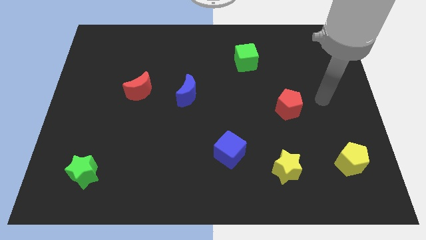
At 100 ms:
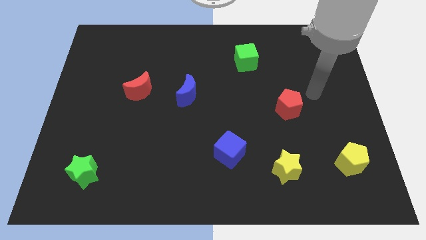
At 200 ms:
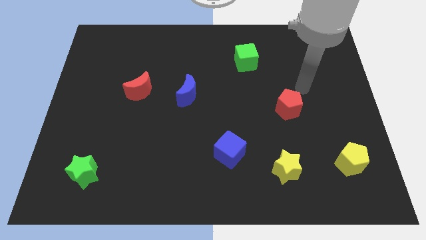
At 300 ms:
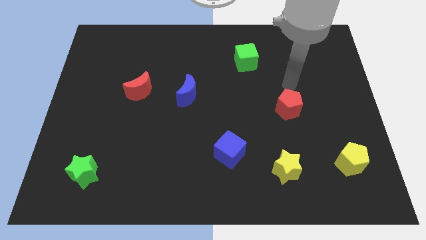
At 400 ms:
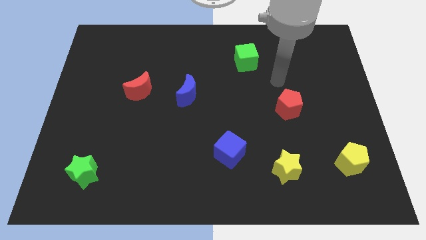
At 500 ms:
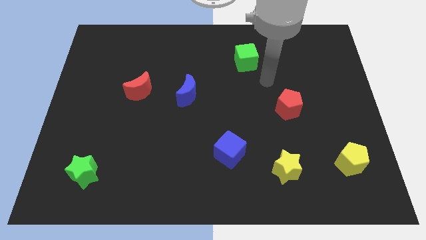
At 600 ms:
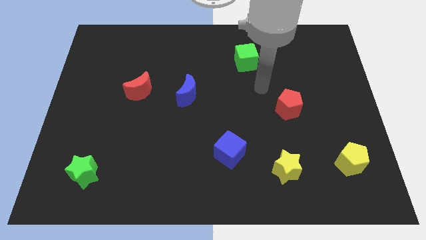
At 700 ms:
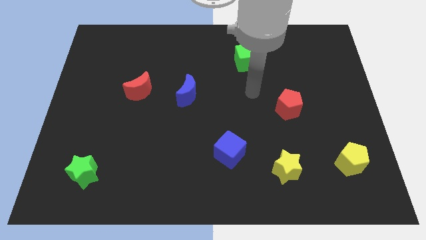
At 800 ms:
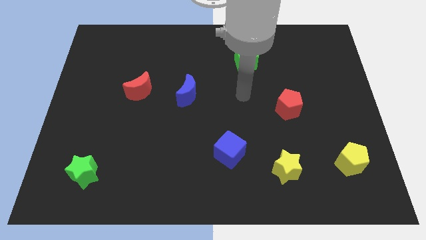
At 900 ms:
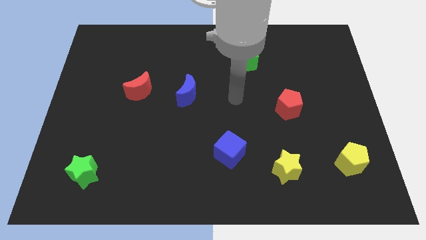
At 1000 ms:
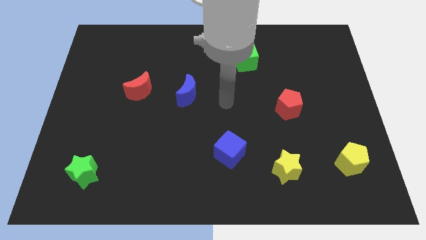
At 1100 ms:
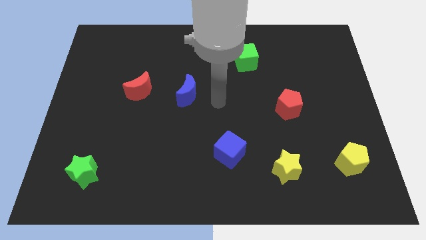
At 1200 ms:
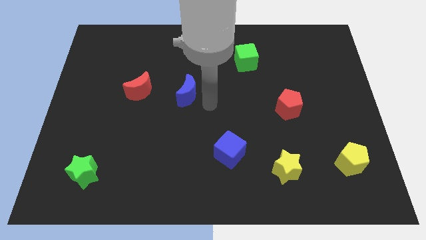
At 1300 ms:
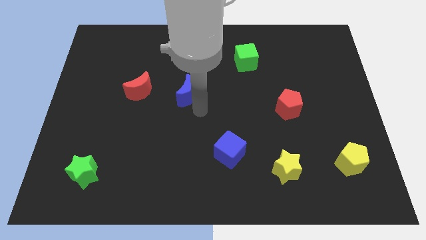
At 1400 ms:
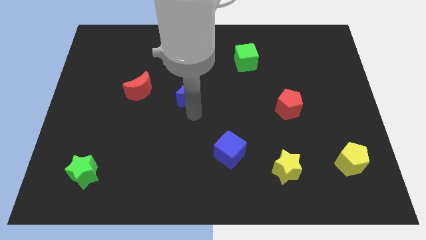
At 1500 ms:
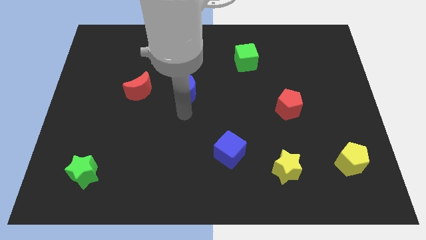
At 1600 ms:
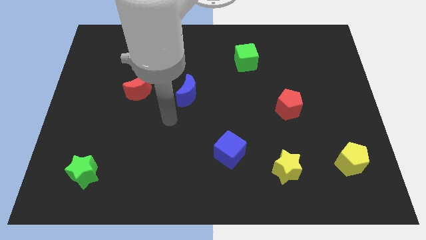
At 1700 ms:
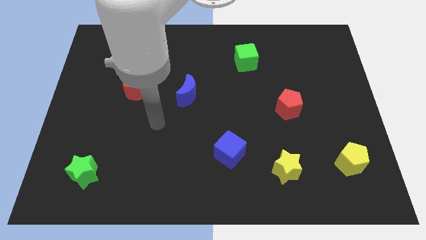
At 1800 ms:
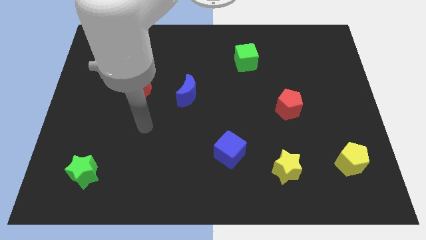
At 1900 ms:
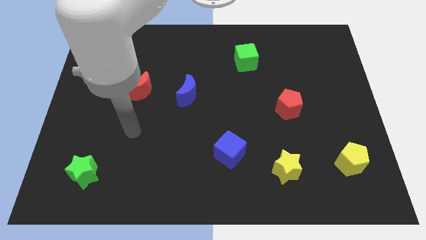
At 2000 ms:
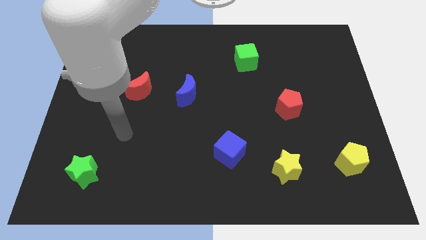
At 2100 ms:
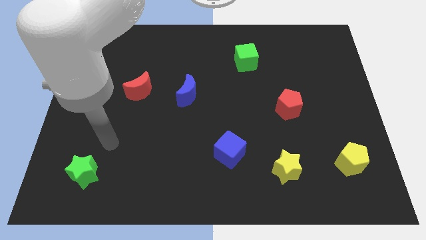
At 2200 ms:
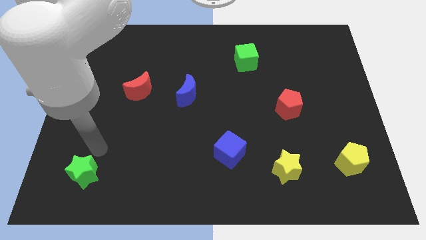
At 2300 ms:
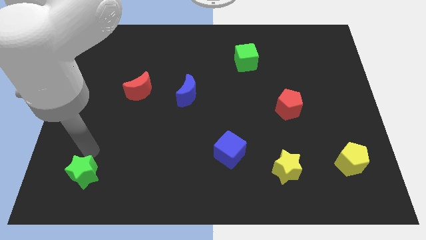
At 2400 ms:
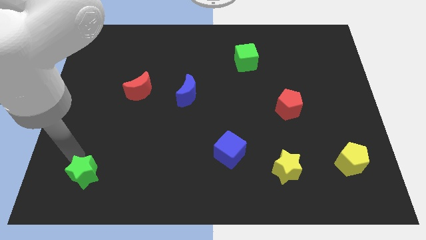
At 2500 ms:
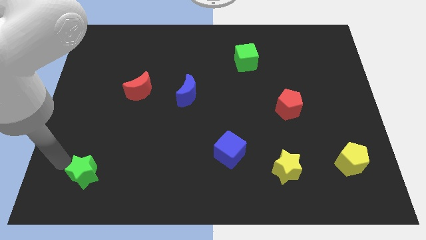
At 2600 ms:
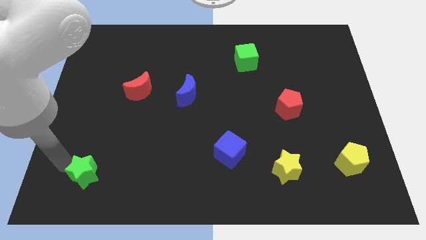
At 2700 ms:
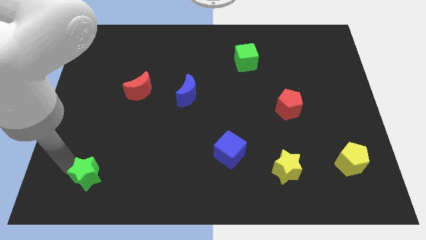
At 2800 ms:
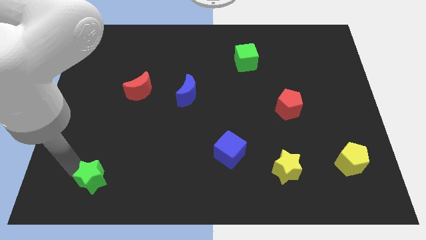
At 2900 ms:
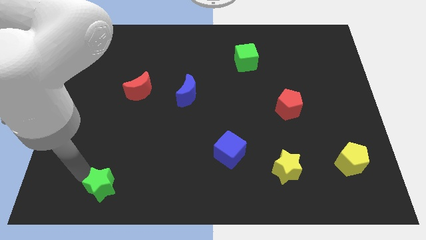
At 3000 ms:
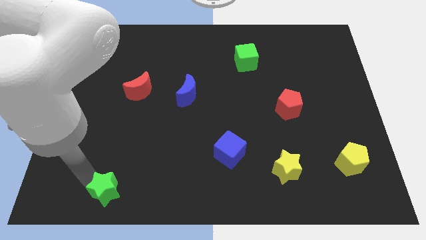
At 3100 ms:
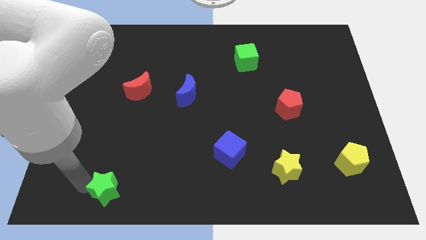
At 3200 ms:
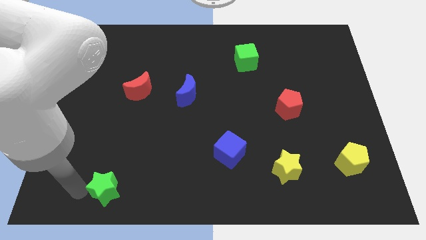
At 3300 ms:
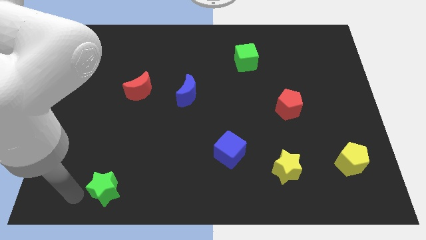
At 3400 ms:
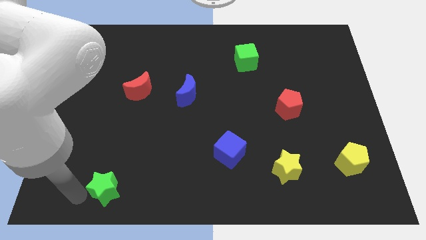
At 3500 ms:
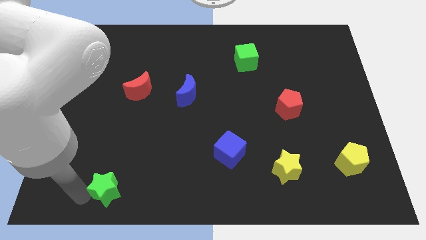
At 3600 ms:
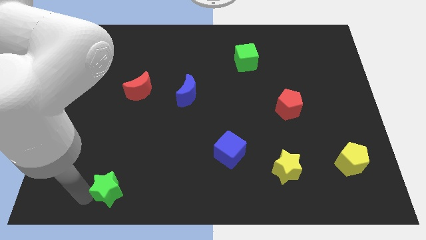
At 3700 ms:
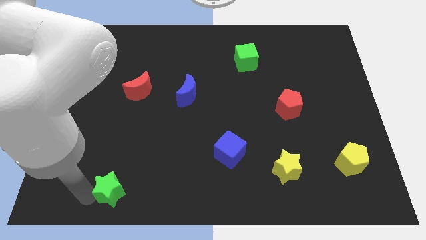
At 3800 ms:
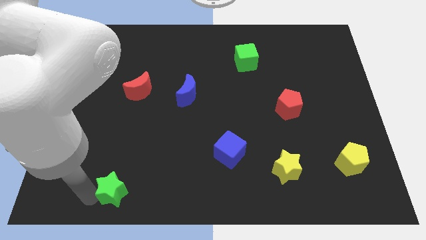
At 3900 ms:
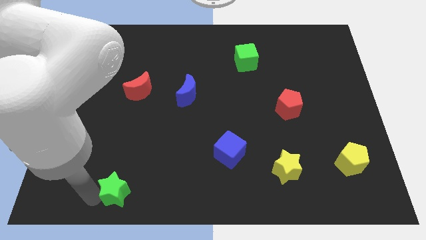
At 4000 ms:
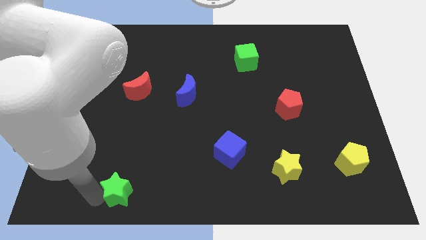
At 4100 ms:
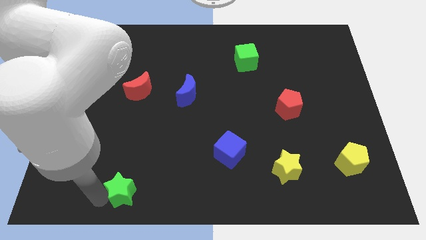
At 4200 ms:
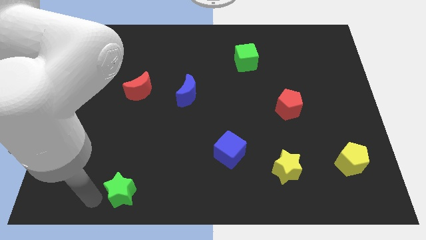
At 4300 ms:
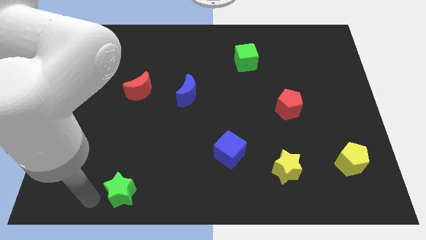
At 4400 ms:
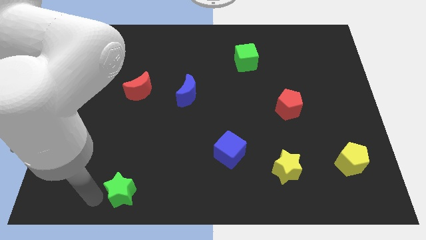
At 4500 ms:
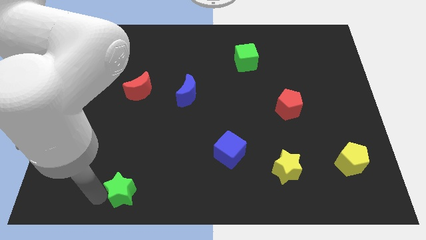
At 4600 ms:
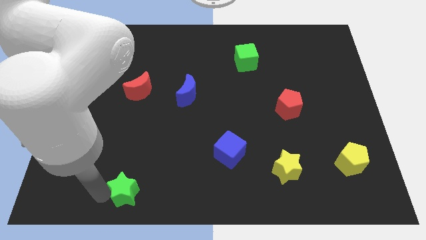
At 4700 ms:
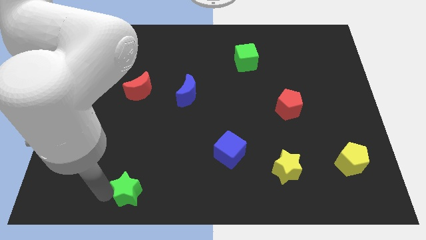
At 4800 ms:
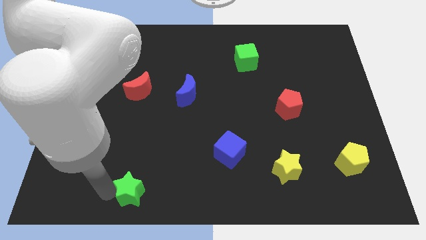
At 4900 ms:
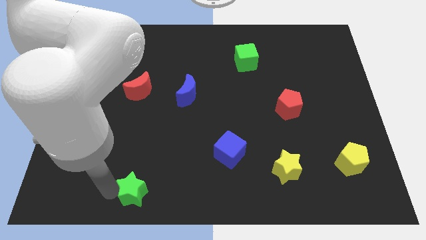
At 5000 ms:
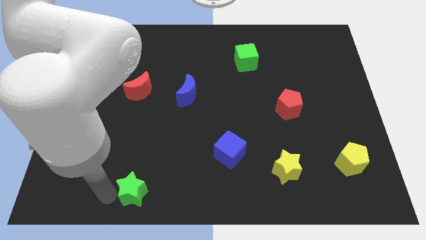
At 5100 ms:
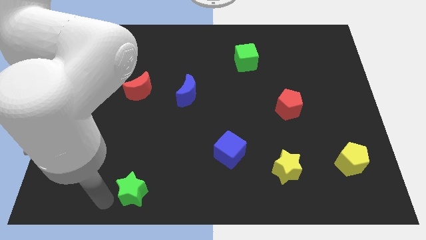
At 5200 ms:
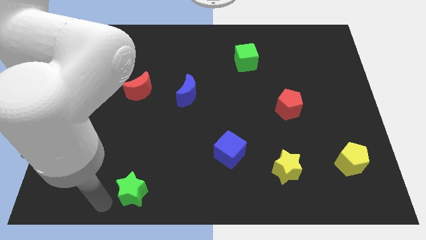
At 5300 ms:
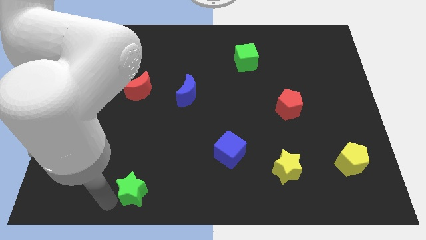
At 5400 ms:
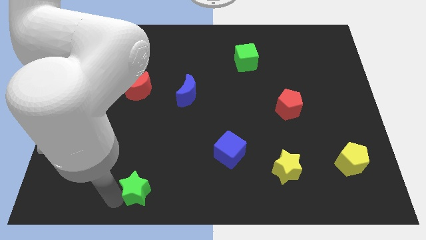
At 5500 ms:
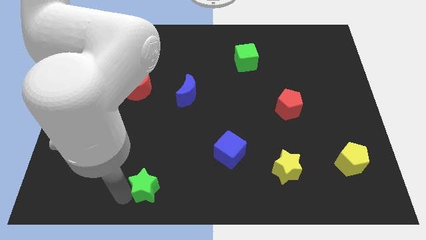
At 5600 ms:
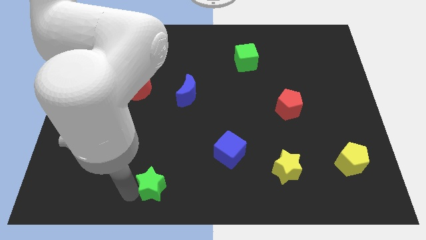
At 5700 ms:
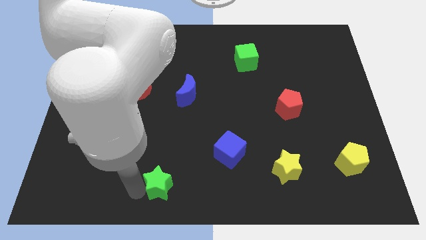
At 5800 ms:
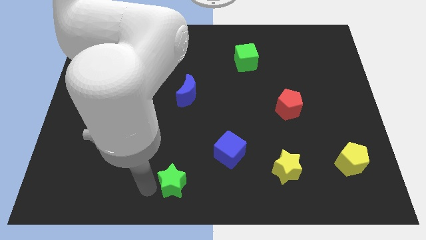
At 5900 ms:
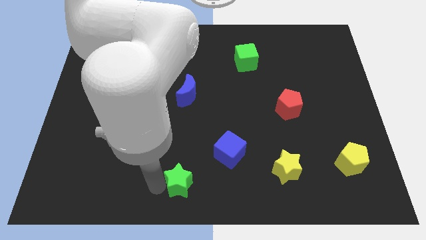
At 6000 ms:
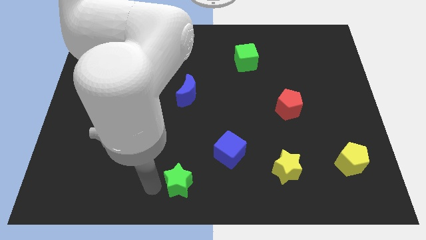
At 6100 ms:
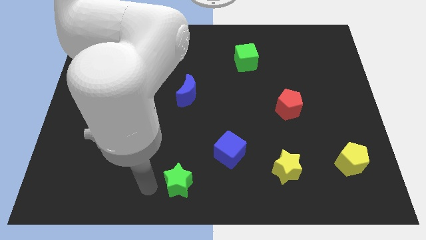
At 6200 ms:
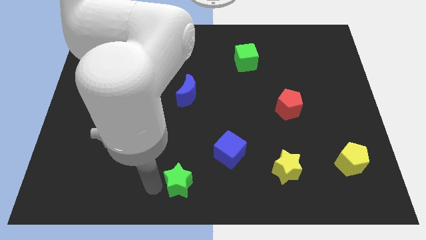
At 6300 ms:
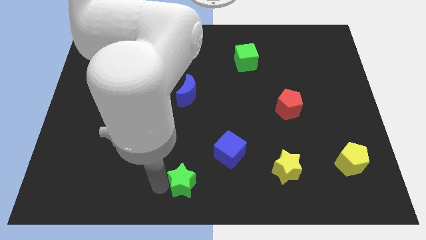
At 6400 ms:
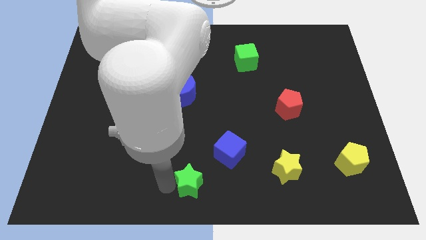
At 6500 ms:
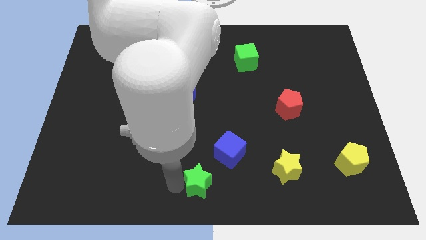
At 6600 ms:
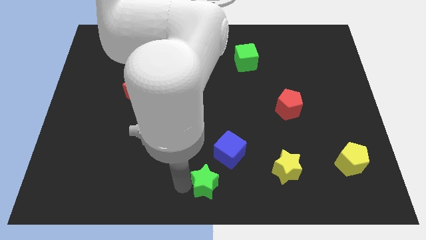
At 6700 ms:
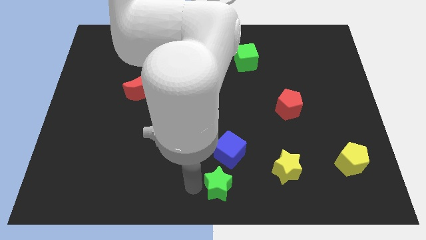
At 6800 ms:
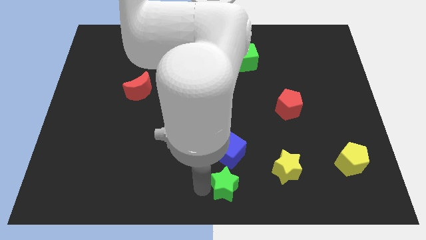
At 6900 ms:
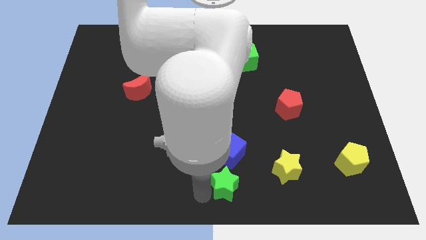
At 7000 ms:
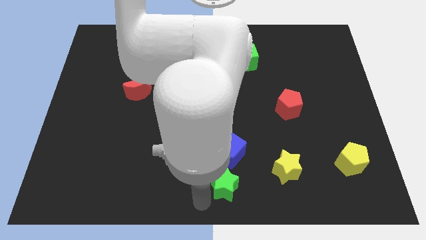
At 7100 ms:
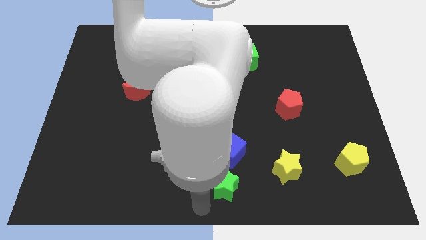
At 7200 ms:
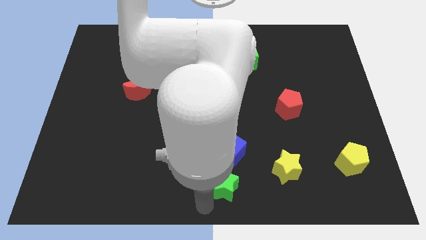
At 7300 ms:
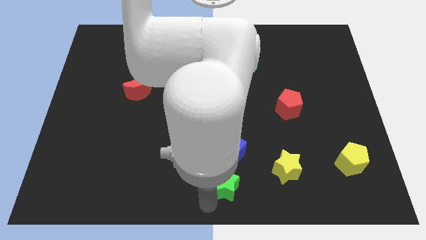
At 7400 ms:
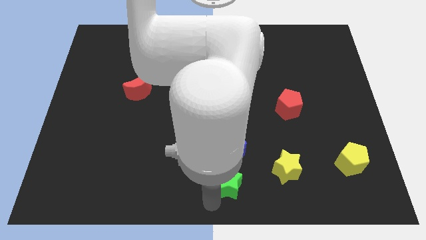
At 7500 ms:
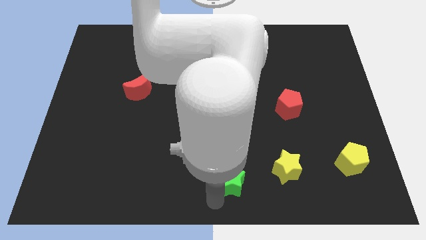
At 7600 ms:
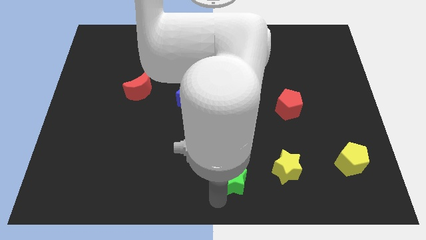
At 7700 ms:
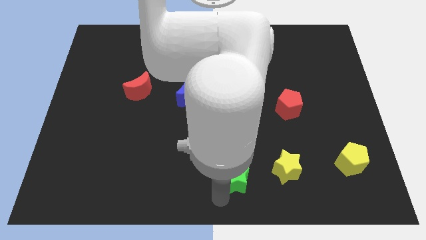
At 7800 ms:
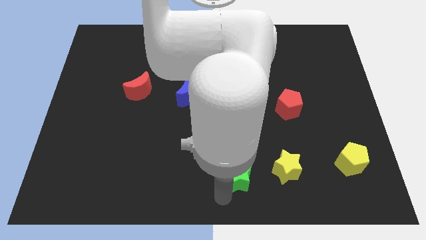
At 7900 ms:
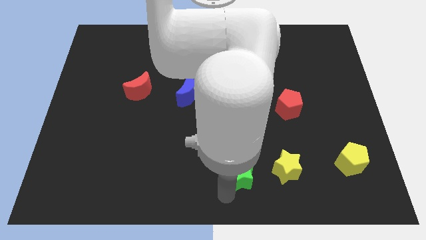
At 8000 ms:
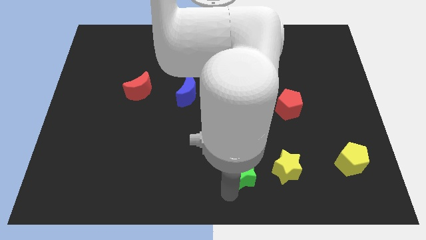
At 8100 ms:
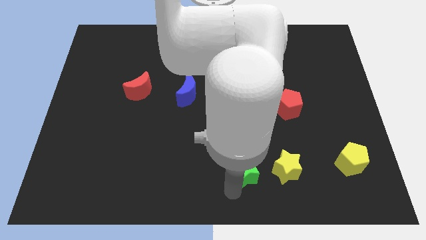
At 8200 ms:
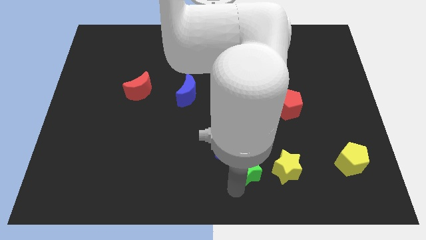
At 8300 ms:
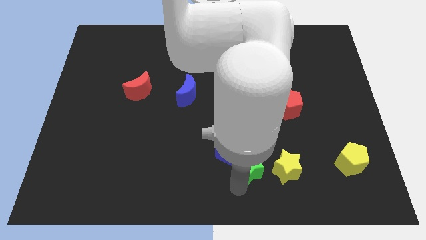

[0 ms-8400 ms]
put the green star to the right side of the blue cube
